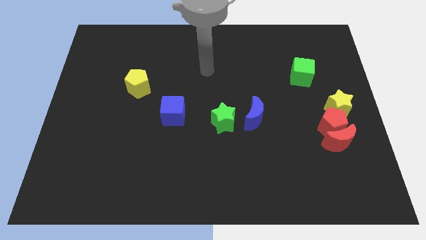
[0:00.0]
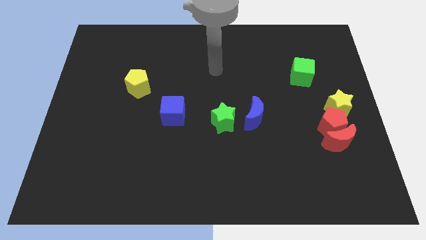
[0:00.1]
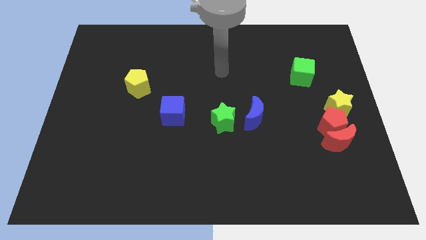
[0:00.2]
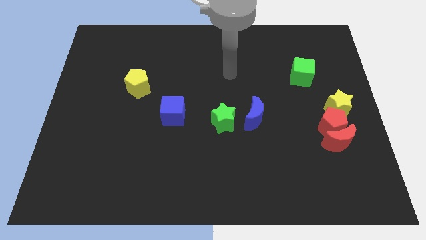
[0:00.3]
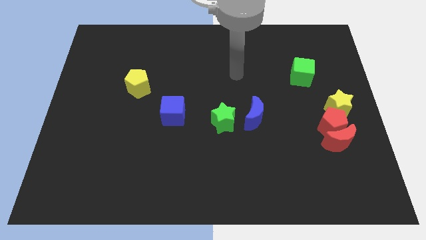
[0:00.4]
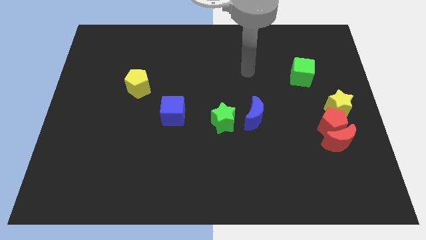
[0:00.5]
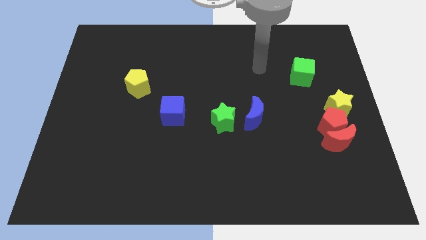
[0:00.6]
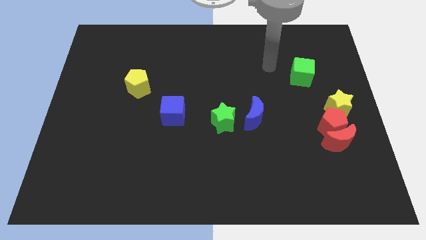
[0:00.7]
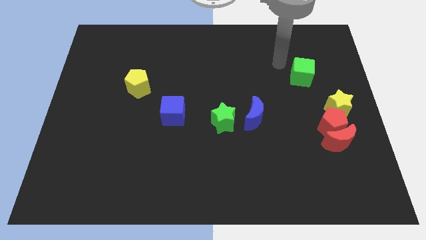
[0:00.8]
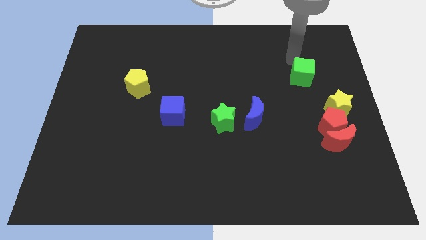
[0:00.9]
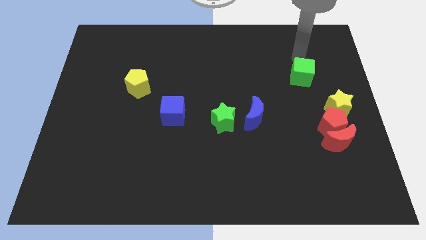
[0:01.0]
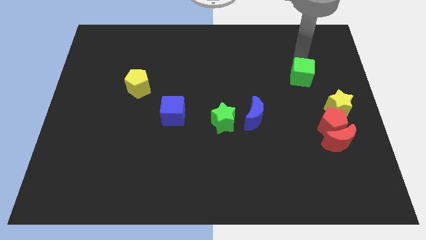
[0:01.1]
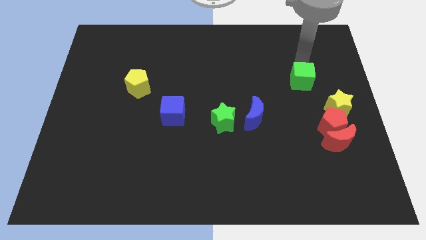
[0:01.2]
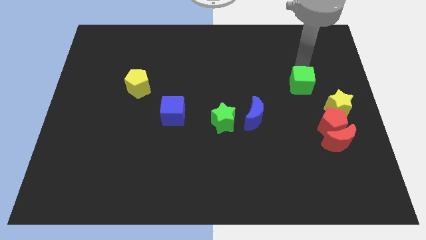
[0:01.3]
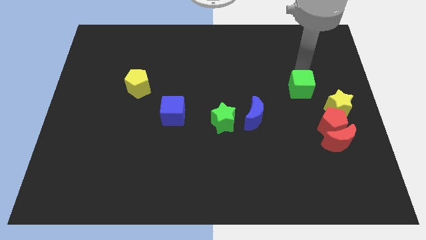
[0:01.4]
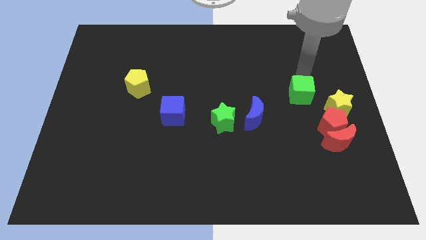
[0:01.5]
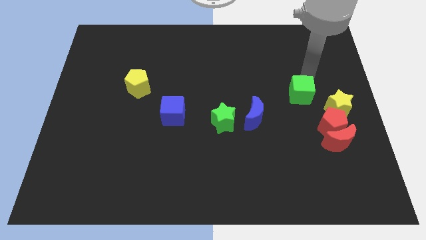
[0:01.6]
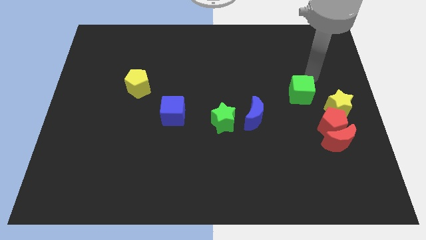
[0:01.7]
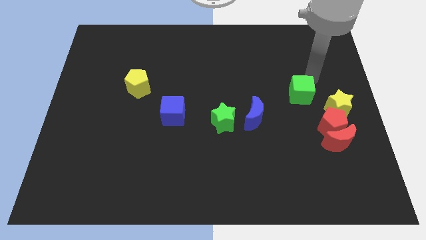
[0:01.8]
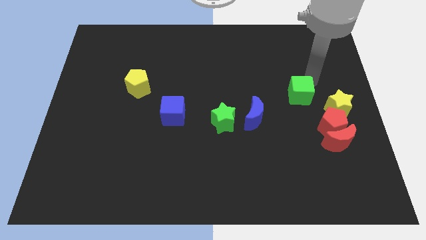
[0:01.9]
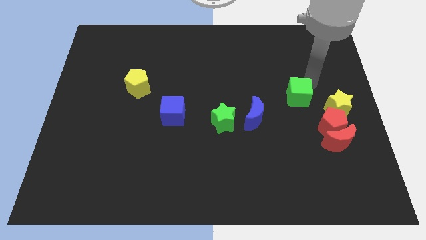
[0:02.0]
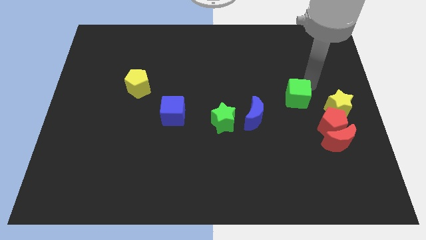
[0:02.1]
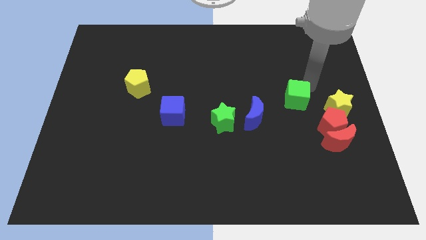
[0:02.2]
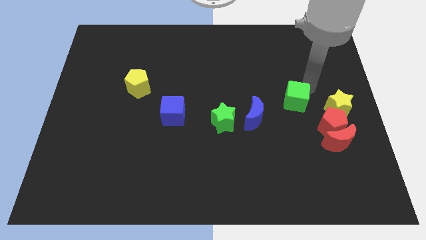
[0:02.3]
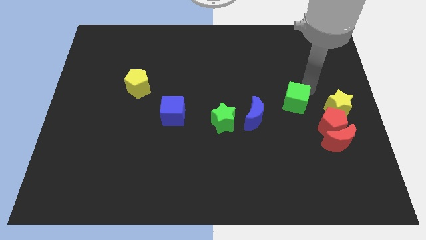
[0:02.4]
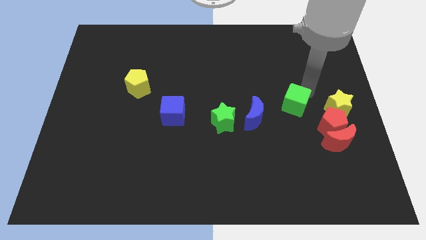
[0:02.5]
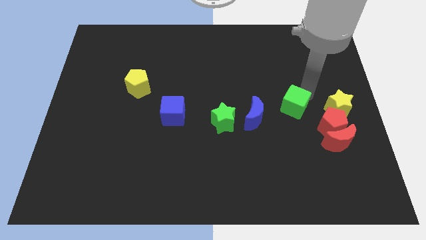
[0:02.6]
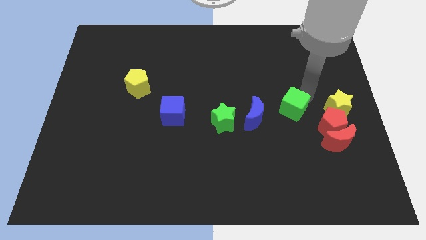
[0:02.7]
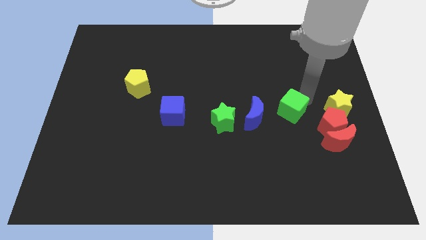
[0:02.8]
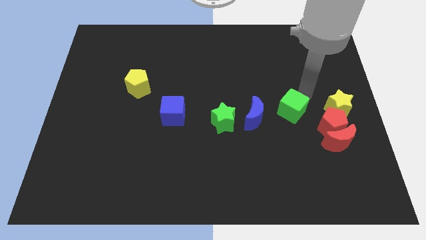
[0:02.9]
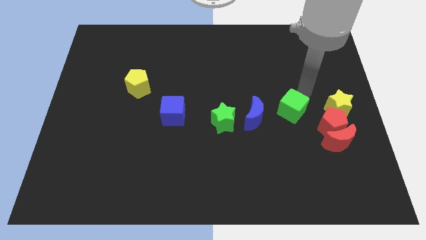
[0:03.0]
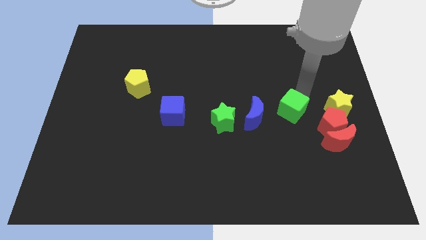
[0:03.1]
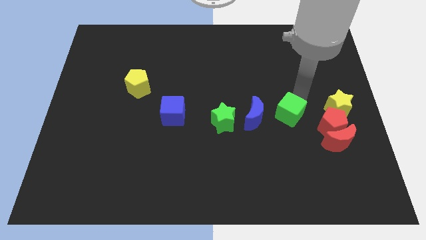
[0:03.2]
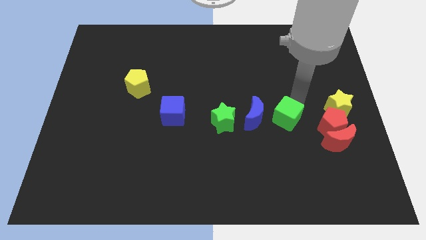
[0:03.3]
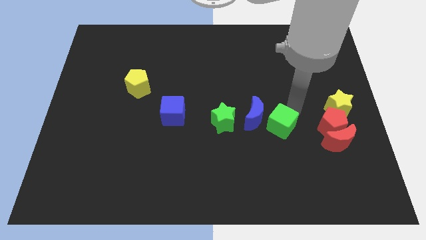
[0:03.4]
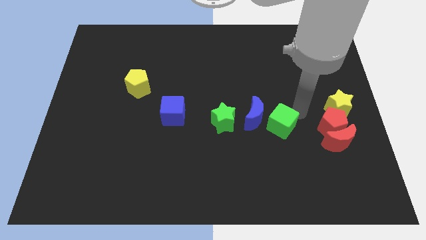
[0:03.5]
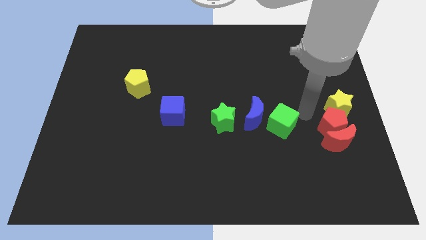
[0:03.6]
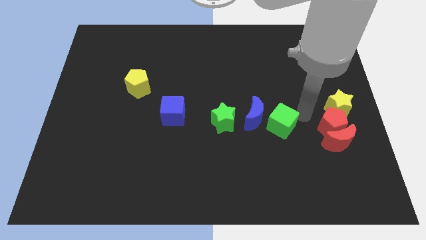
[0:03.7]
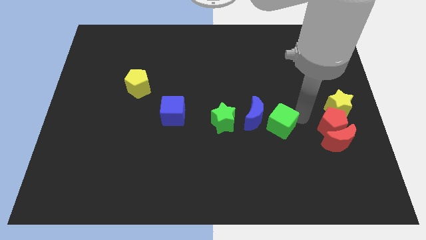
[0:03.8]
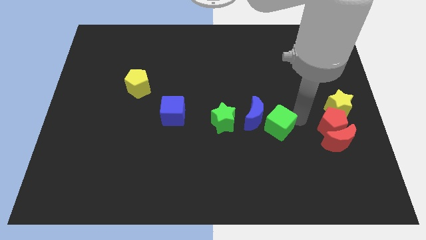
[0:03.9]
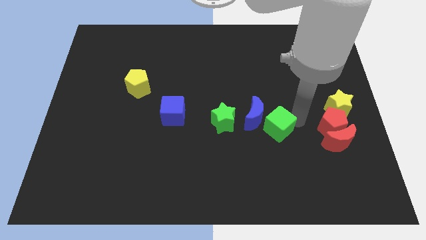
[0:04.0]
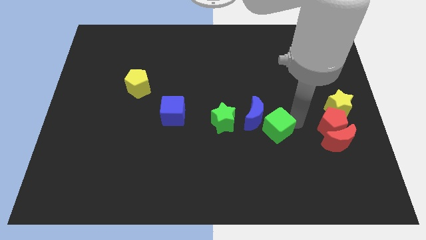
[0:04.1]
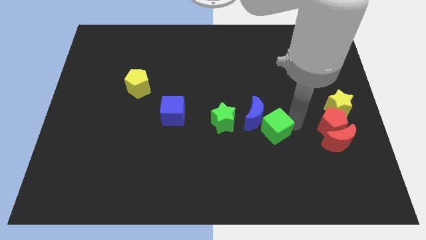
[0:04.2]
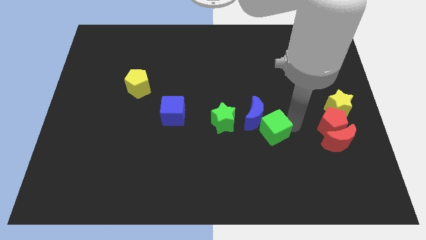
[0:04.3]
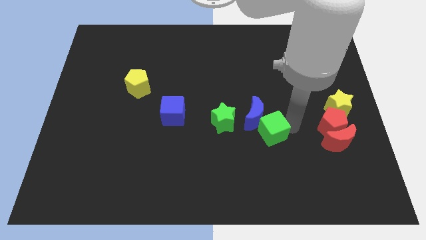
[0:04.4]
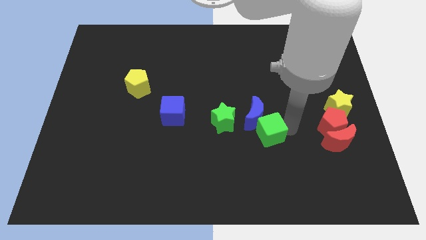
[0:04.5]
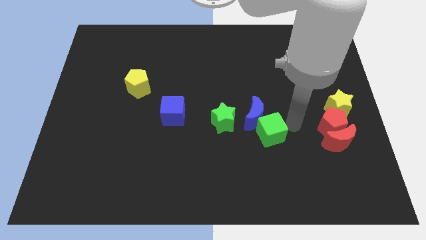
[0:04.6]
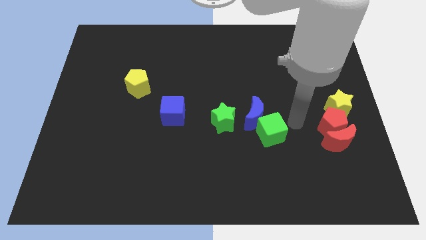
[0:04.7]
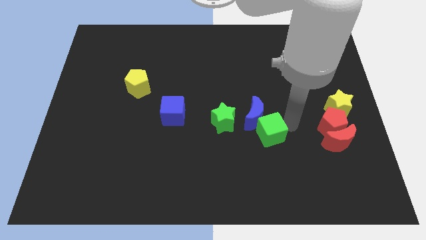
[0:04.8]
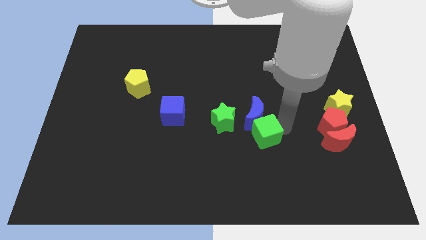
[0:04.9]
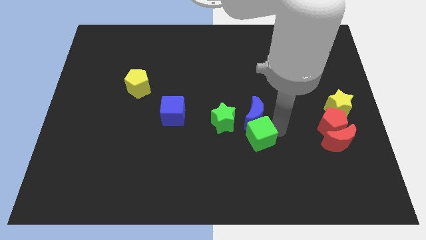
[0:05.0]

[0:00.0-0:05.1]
push the green cube diagonally down and to the left

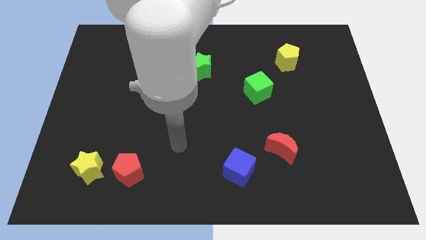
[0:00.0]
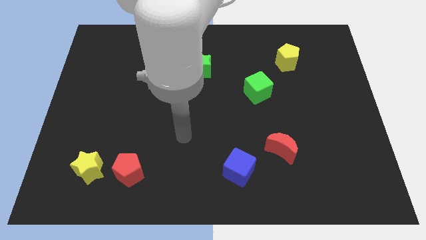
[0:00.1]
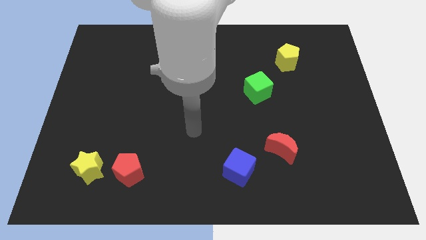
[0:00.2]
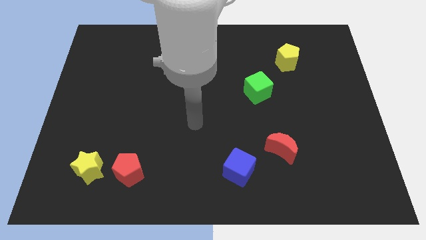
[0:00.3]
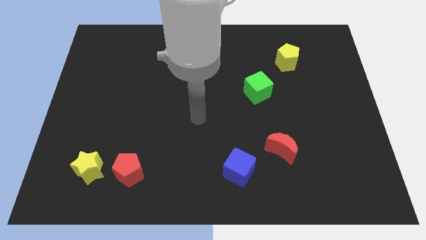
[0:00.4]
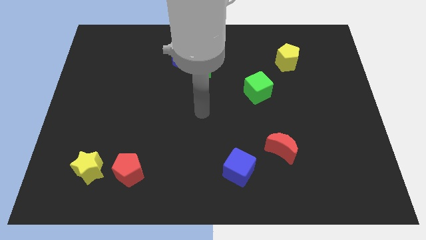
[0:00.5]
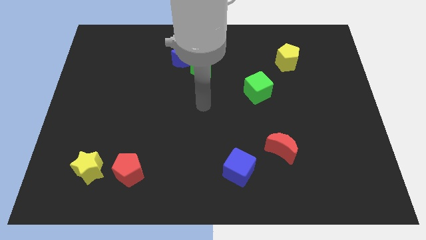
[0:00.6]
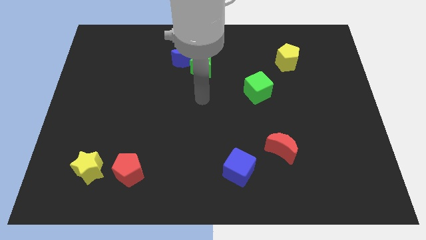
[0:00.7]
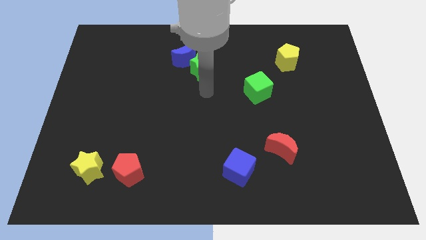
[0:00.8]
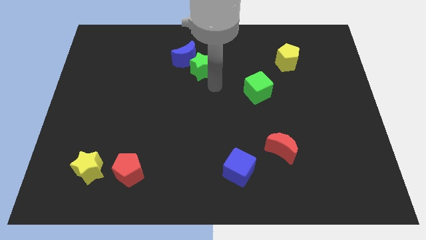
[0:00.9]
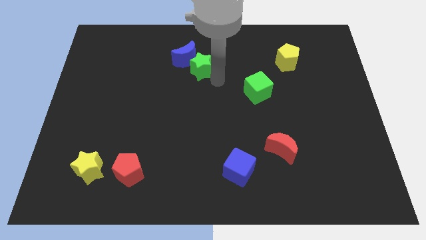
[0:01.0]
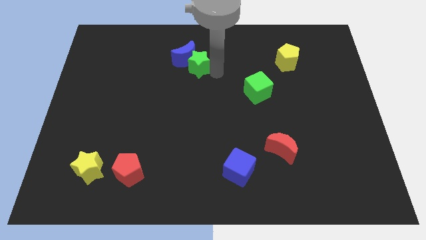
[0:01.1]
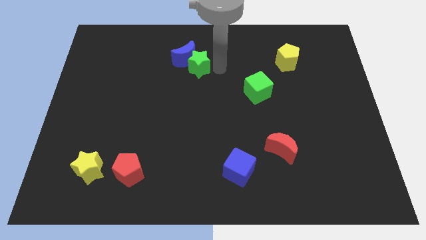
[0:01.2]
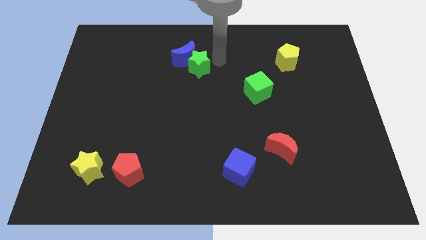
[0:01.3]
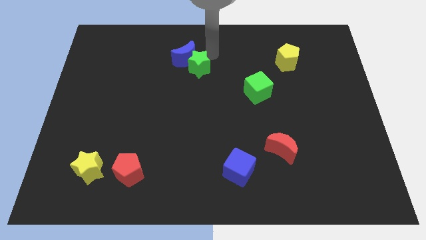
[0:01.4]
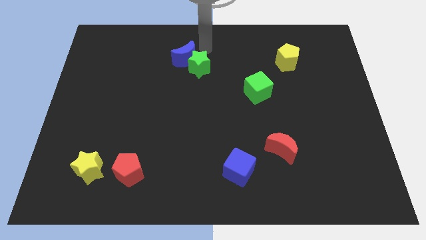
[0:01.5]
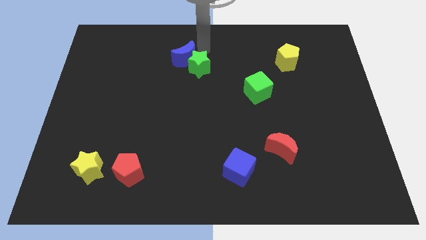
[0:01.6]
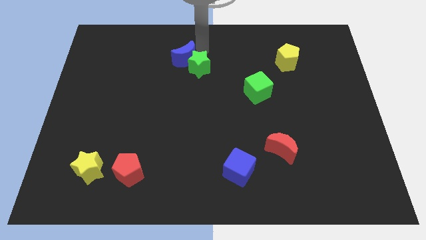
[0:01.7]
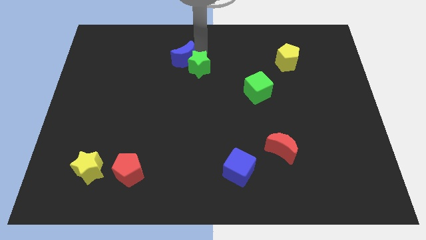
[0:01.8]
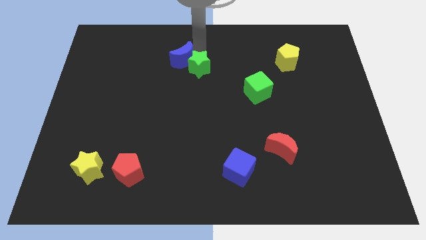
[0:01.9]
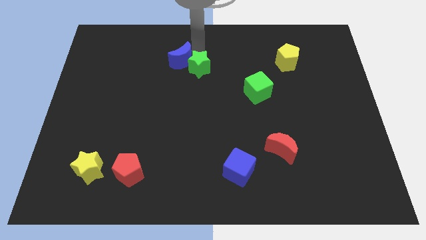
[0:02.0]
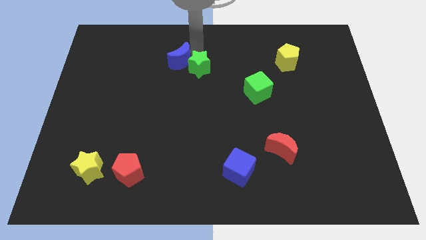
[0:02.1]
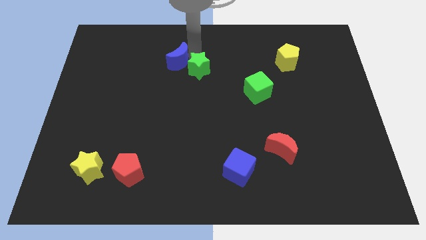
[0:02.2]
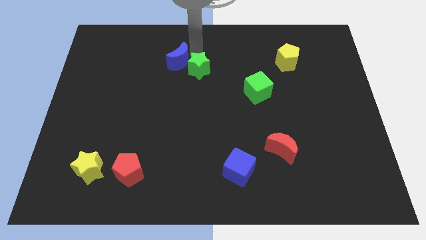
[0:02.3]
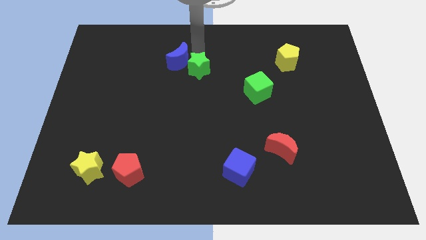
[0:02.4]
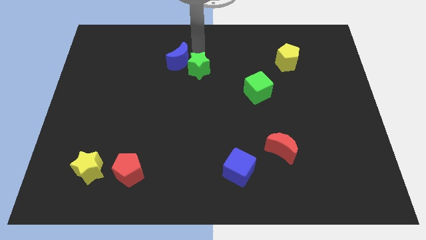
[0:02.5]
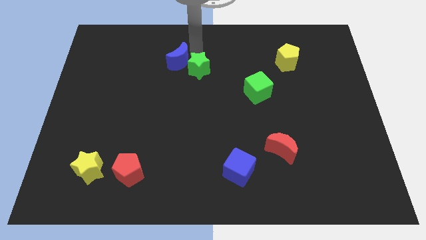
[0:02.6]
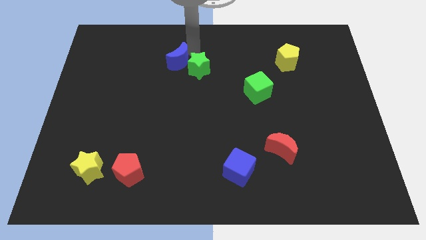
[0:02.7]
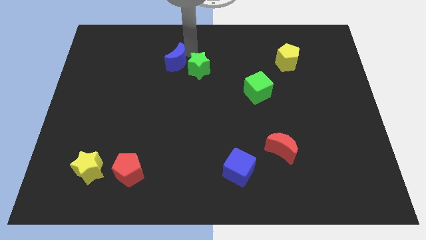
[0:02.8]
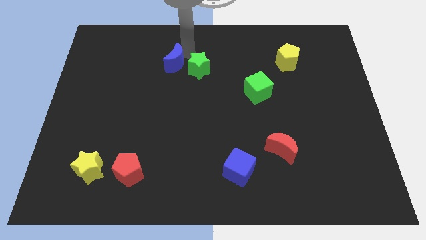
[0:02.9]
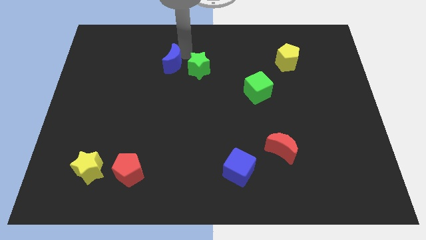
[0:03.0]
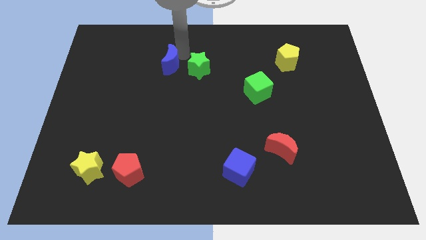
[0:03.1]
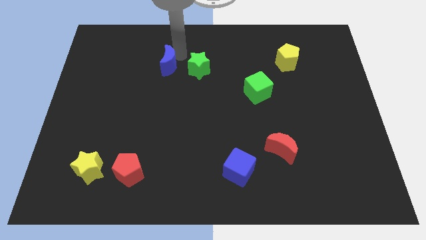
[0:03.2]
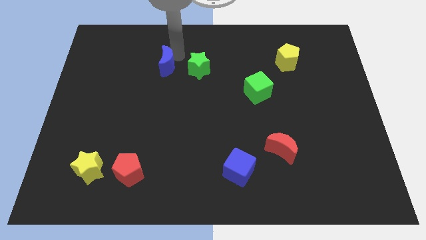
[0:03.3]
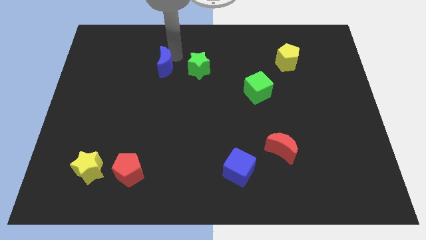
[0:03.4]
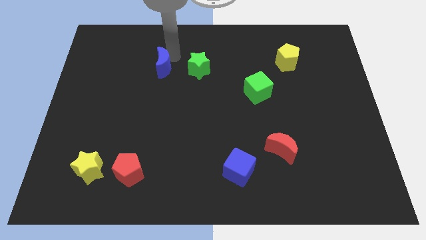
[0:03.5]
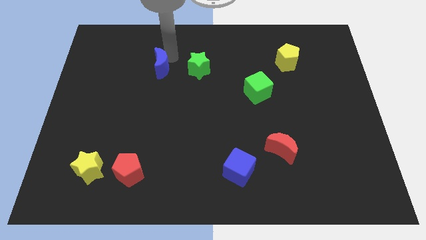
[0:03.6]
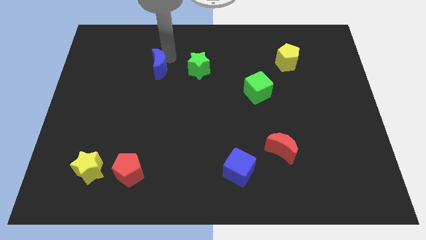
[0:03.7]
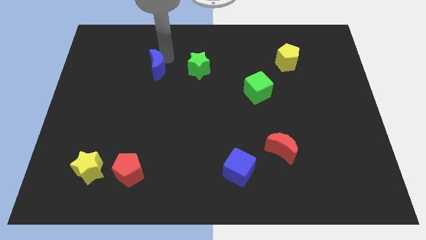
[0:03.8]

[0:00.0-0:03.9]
slightly move the blue moon down and to the left
